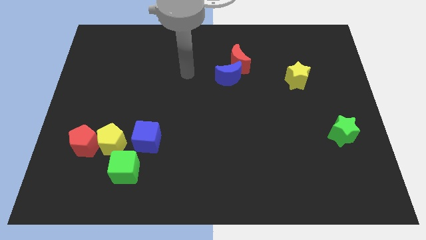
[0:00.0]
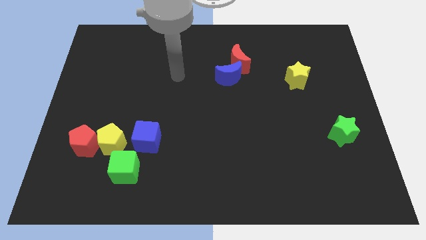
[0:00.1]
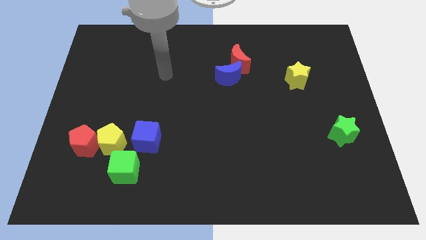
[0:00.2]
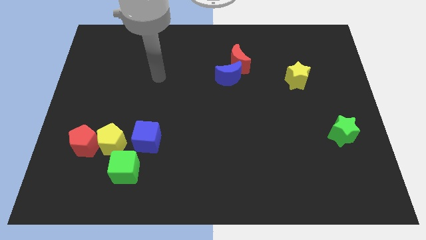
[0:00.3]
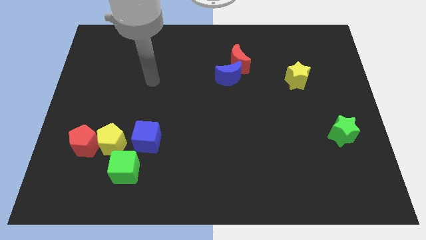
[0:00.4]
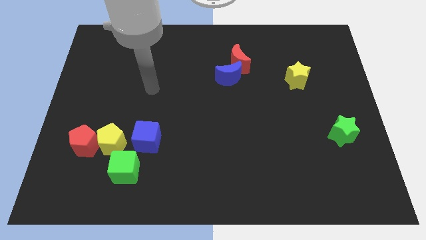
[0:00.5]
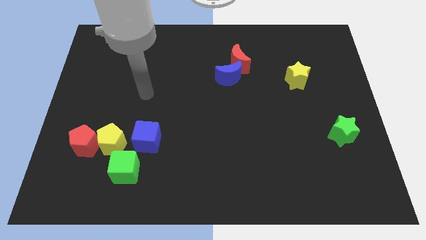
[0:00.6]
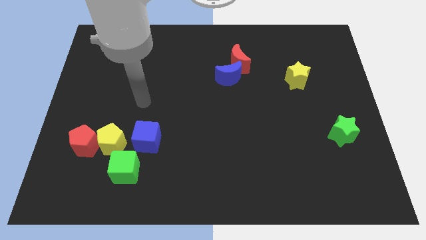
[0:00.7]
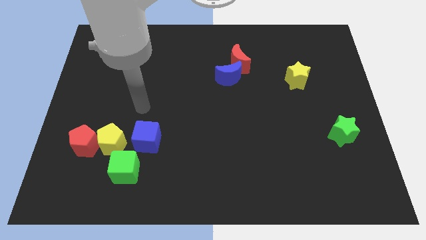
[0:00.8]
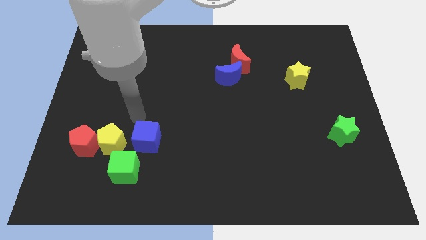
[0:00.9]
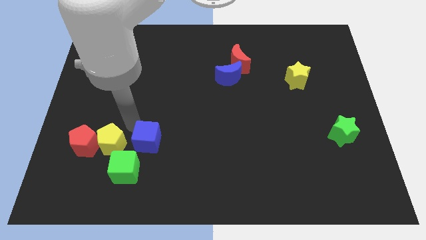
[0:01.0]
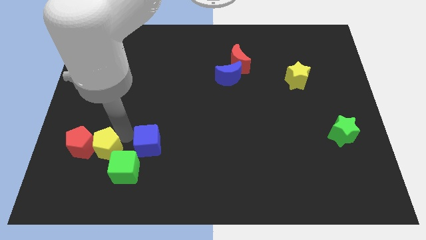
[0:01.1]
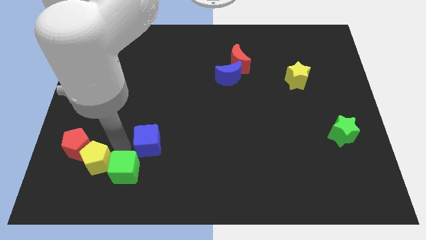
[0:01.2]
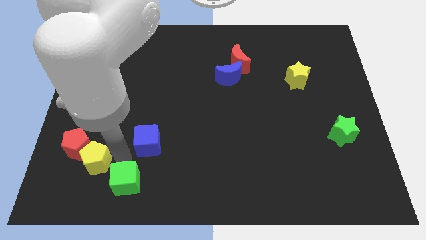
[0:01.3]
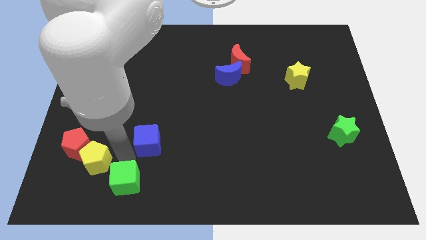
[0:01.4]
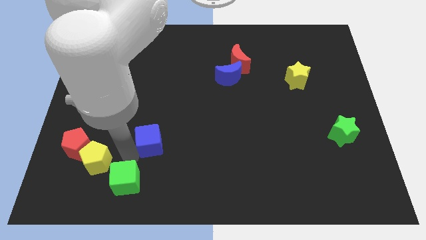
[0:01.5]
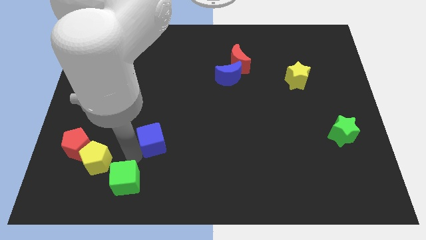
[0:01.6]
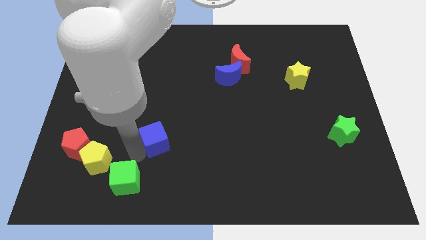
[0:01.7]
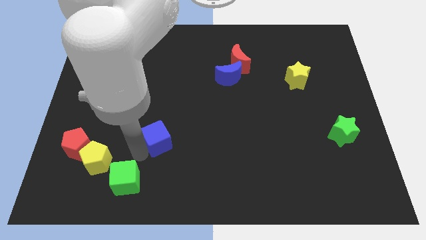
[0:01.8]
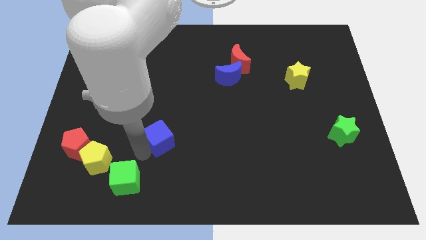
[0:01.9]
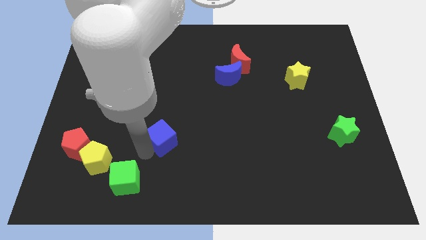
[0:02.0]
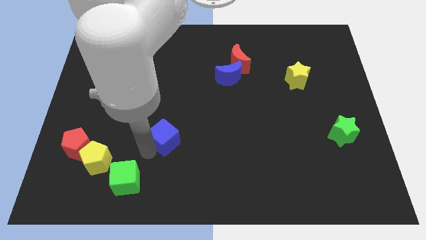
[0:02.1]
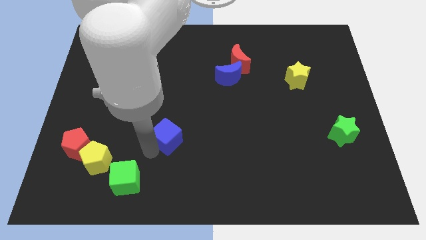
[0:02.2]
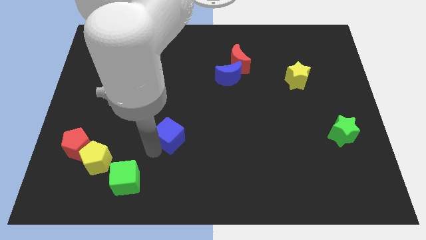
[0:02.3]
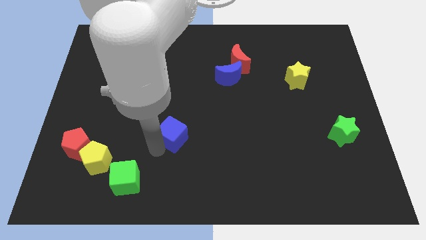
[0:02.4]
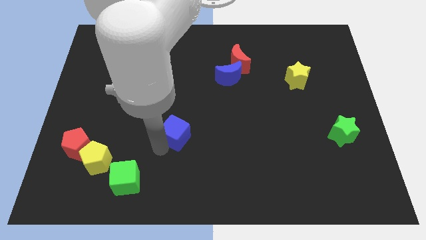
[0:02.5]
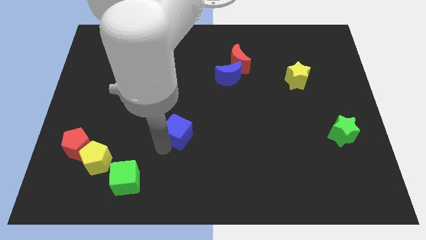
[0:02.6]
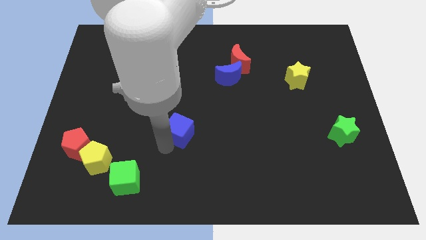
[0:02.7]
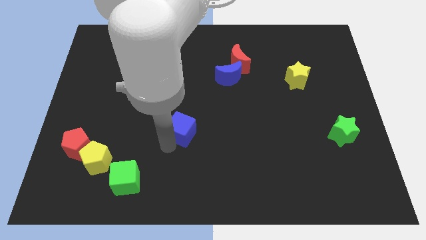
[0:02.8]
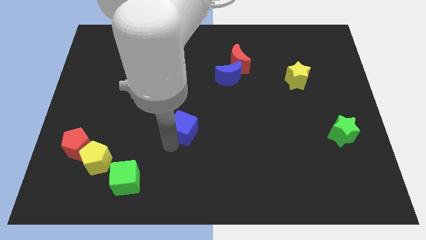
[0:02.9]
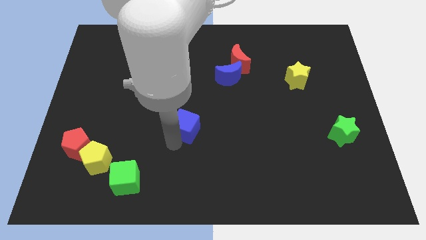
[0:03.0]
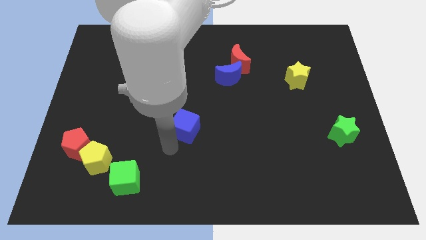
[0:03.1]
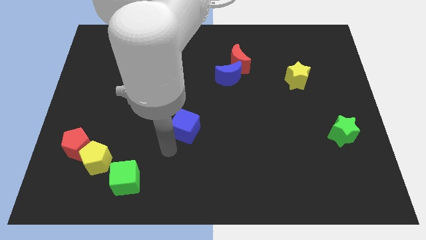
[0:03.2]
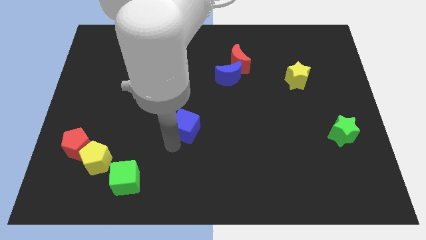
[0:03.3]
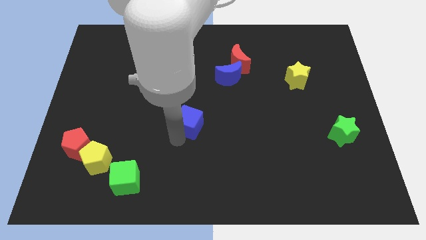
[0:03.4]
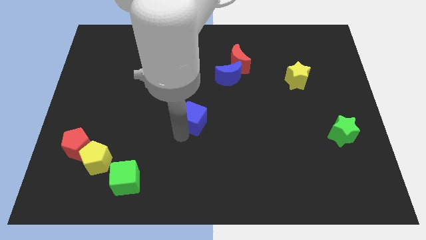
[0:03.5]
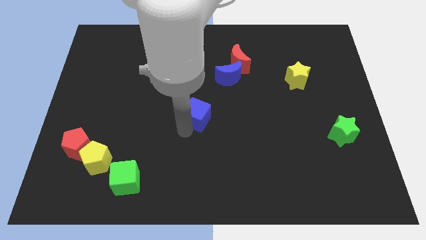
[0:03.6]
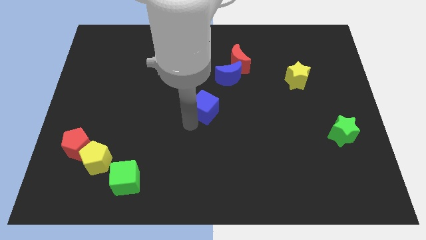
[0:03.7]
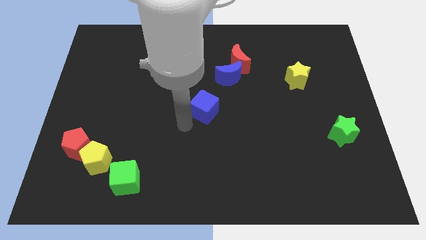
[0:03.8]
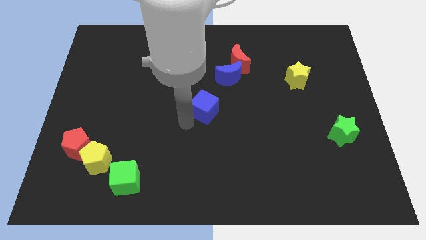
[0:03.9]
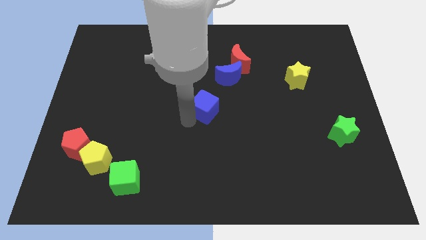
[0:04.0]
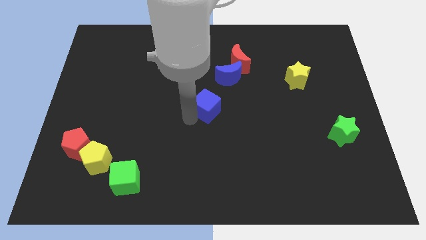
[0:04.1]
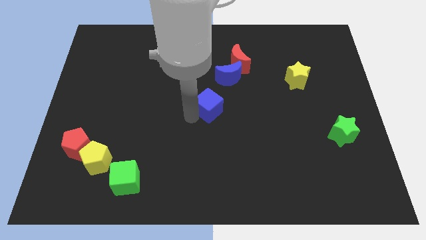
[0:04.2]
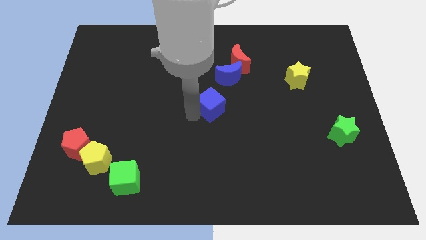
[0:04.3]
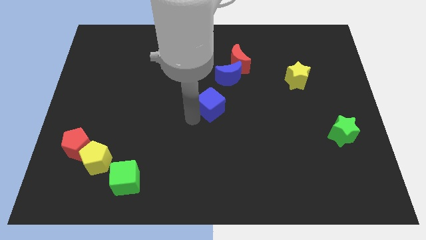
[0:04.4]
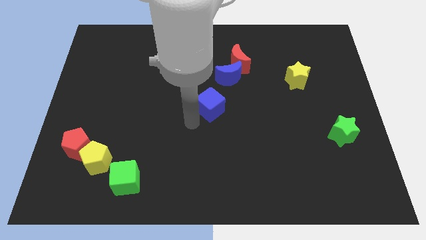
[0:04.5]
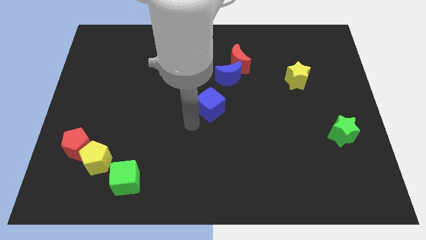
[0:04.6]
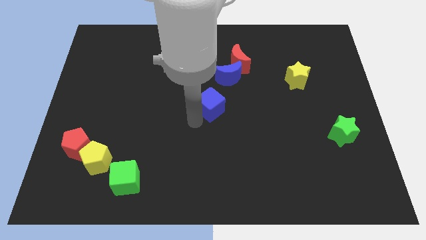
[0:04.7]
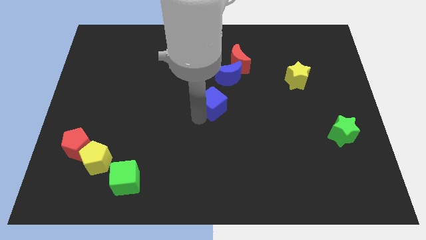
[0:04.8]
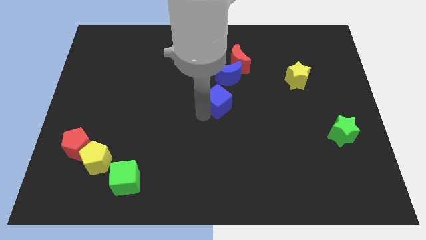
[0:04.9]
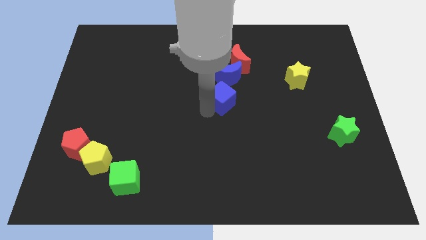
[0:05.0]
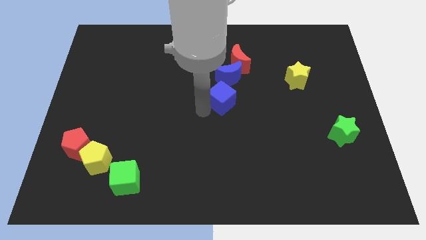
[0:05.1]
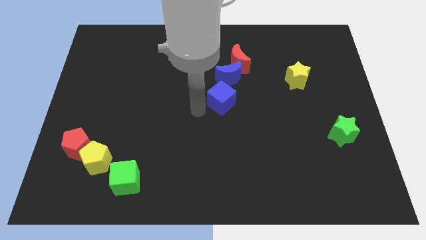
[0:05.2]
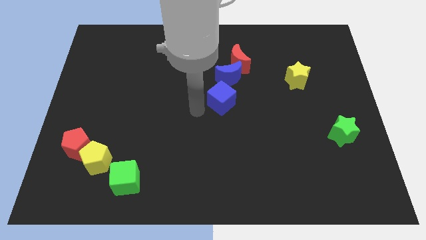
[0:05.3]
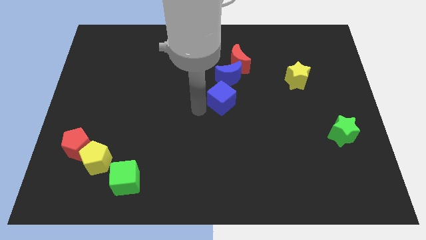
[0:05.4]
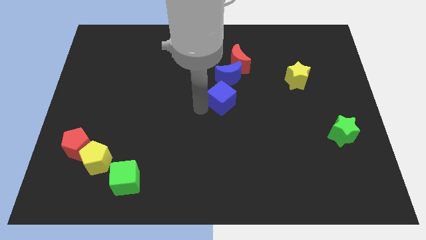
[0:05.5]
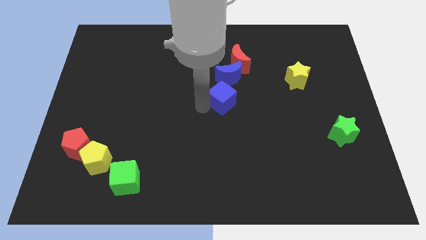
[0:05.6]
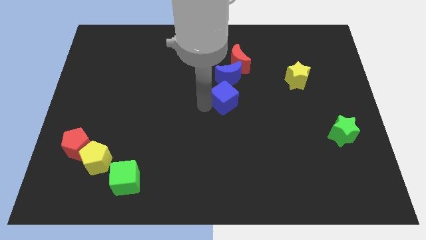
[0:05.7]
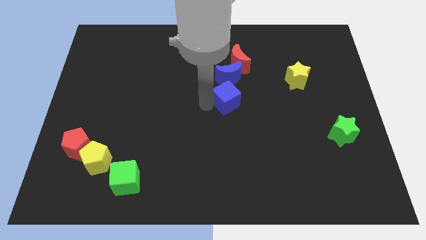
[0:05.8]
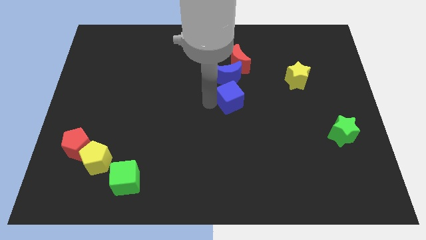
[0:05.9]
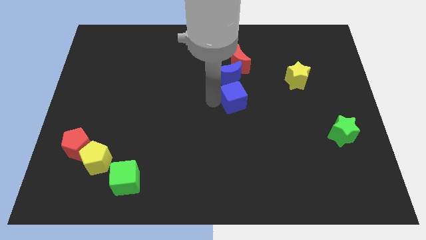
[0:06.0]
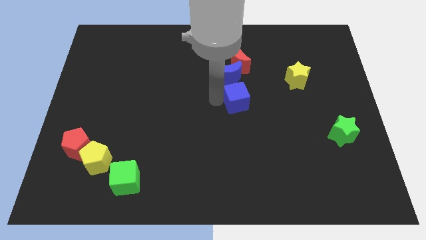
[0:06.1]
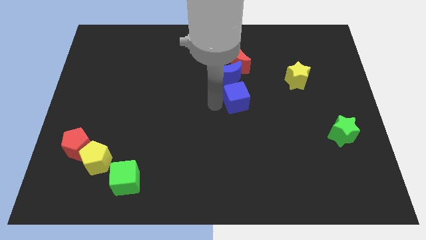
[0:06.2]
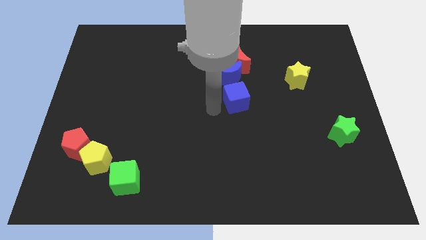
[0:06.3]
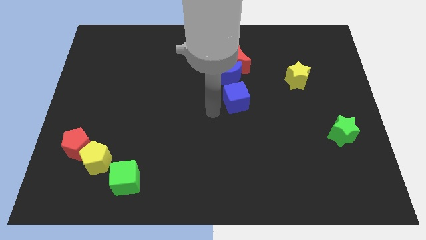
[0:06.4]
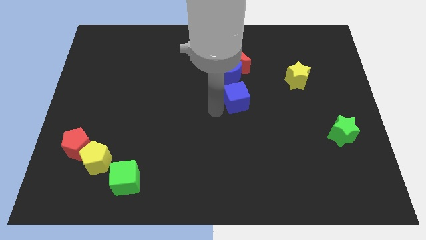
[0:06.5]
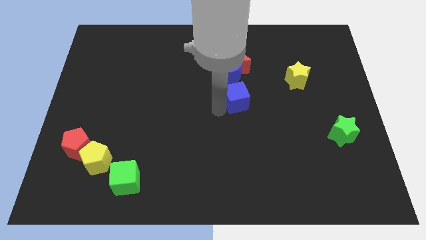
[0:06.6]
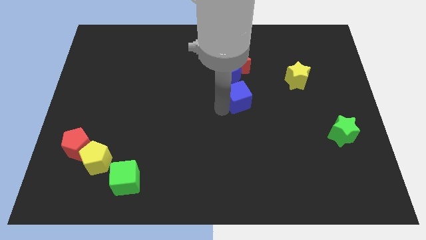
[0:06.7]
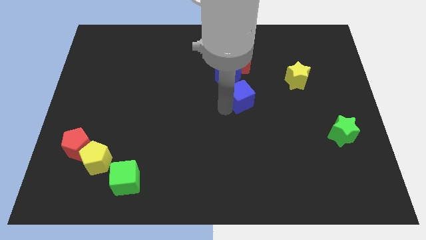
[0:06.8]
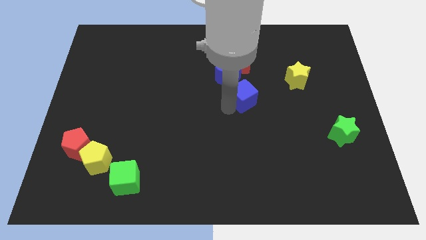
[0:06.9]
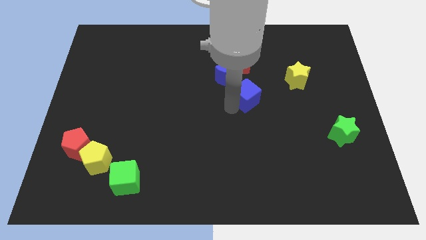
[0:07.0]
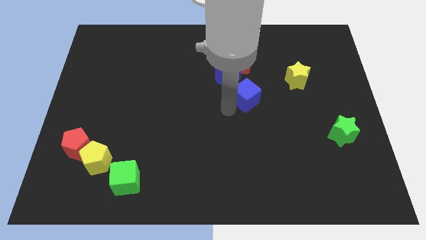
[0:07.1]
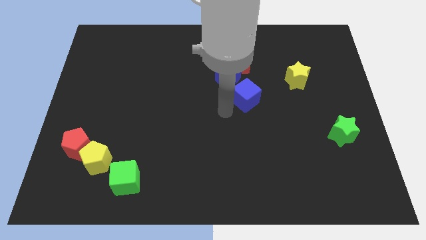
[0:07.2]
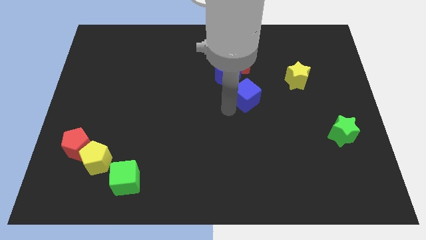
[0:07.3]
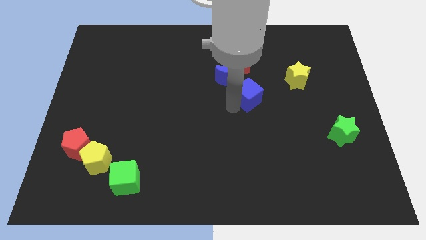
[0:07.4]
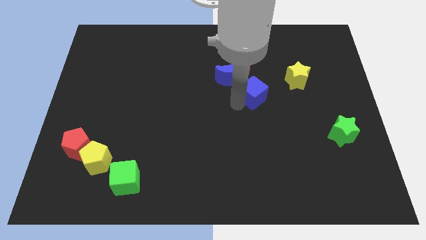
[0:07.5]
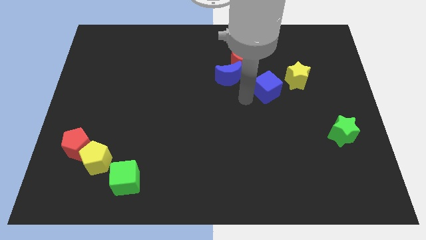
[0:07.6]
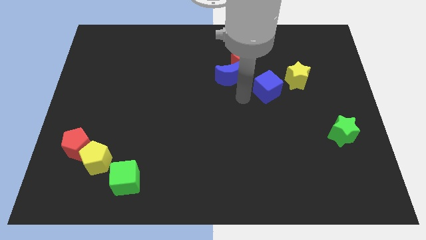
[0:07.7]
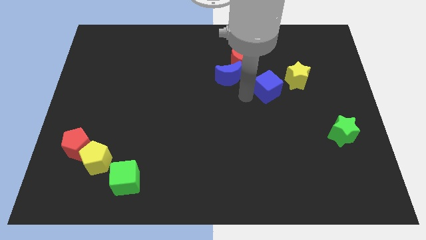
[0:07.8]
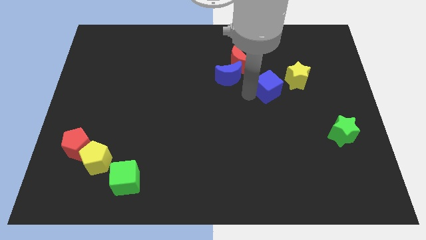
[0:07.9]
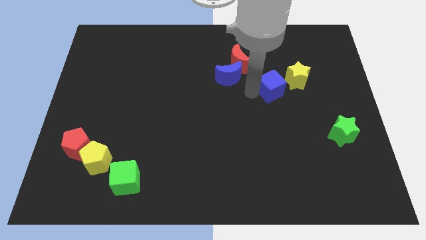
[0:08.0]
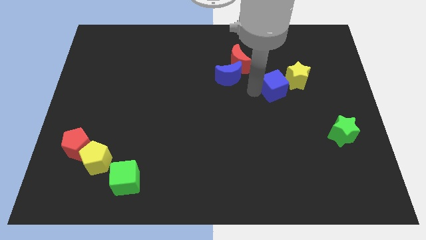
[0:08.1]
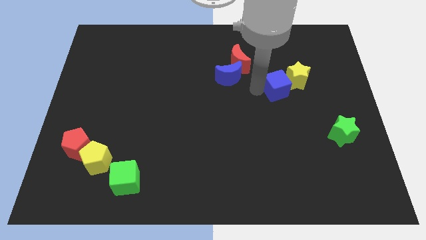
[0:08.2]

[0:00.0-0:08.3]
slide the blue cube next to the yellow star
